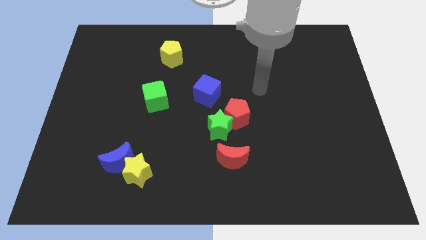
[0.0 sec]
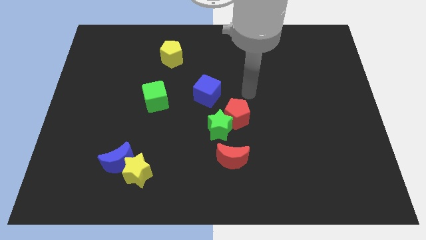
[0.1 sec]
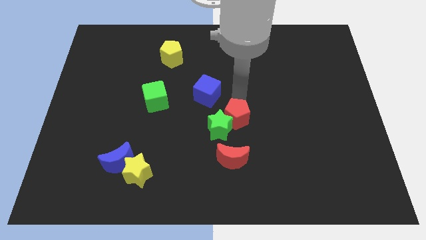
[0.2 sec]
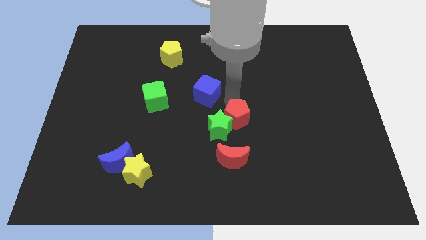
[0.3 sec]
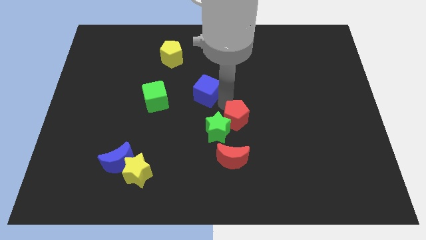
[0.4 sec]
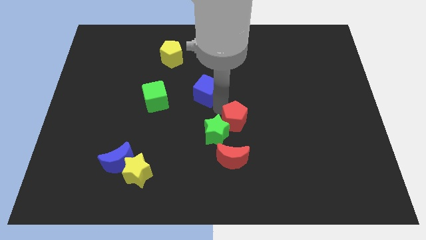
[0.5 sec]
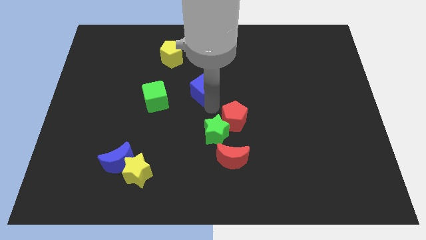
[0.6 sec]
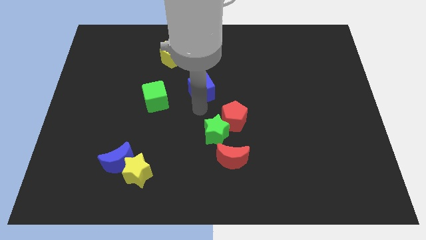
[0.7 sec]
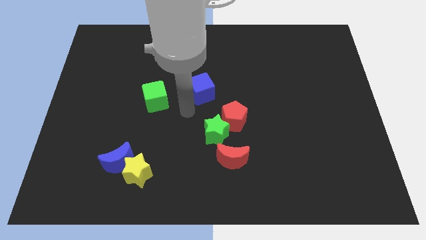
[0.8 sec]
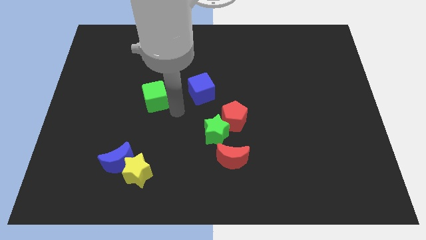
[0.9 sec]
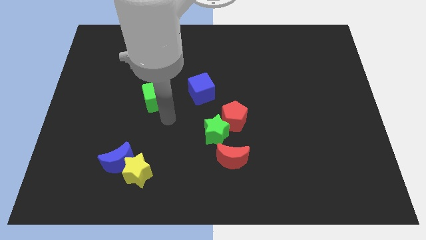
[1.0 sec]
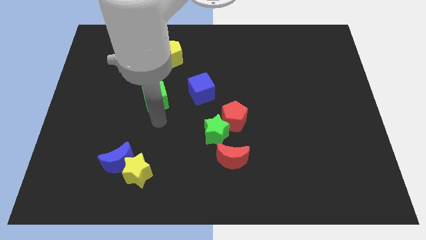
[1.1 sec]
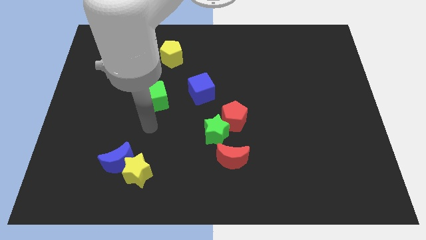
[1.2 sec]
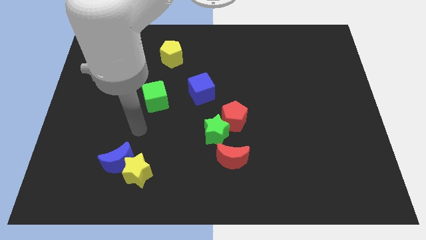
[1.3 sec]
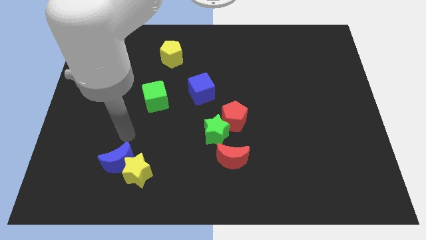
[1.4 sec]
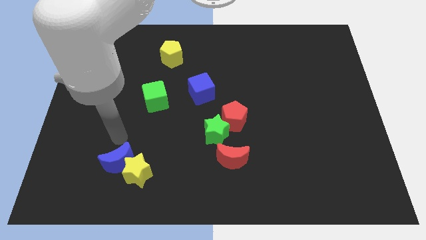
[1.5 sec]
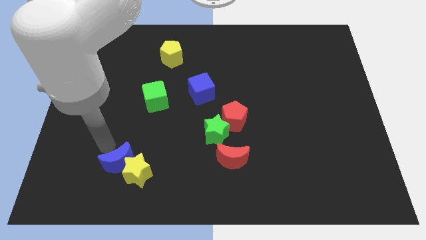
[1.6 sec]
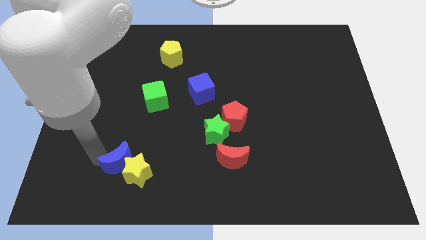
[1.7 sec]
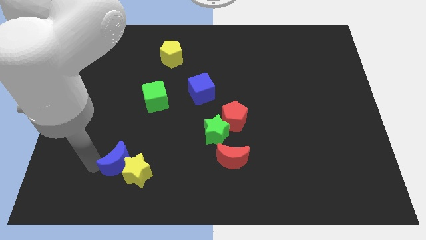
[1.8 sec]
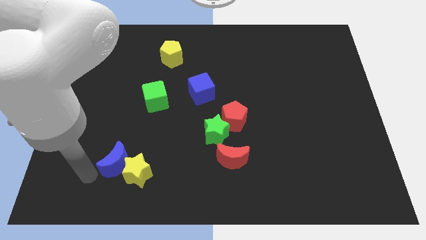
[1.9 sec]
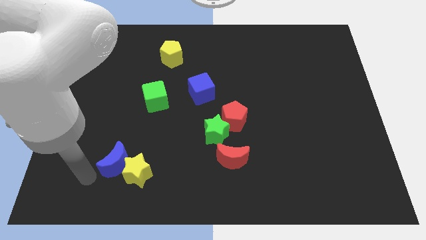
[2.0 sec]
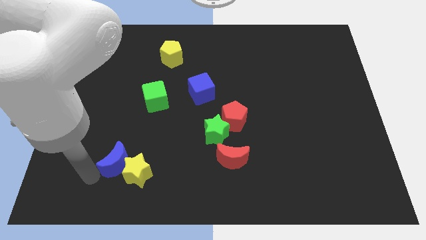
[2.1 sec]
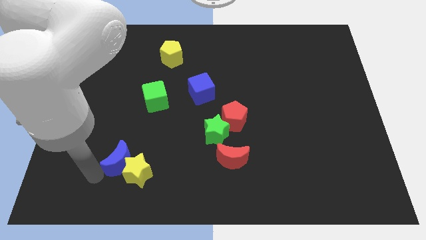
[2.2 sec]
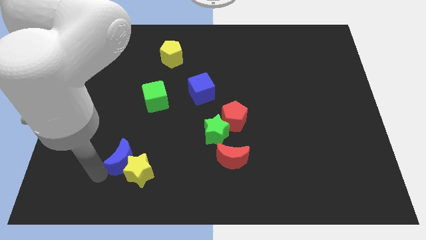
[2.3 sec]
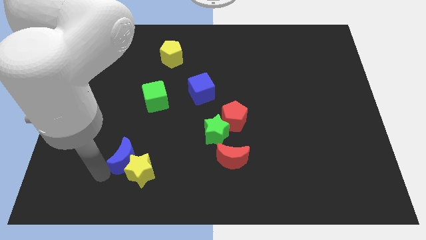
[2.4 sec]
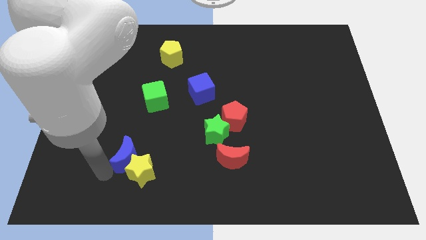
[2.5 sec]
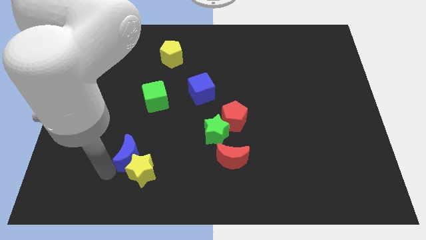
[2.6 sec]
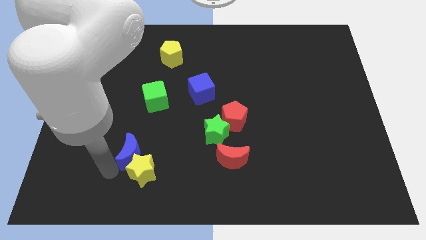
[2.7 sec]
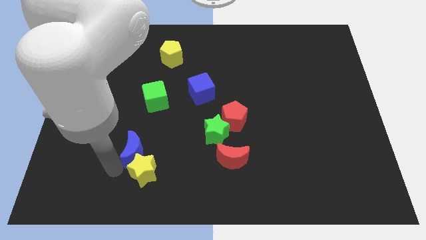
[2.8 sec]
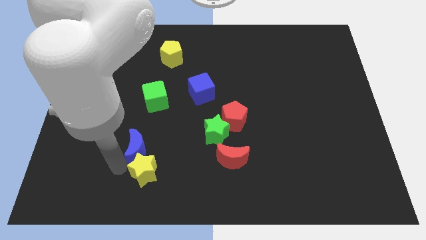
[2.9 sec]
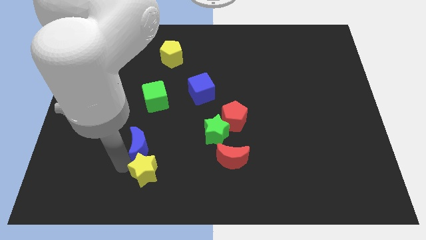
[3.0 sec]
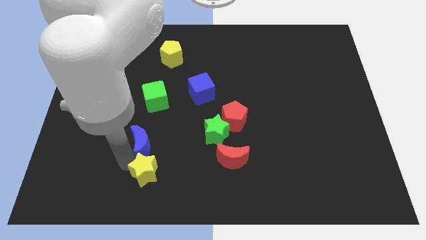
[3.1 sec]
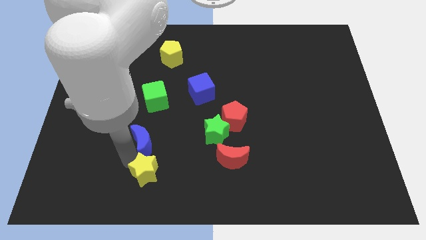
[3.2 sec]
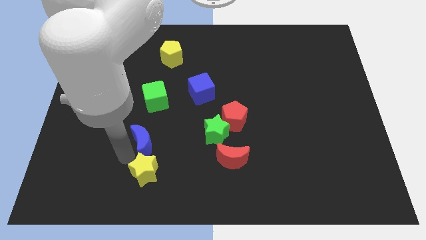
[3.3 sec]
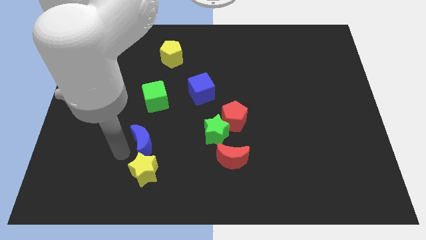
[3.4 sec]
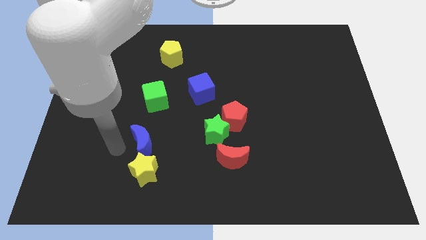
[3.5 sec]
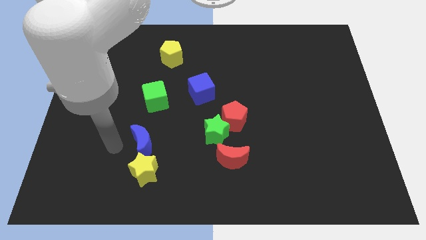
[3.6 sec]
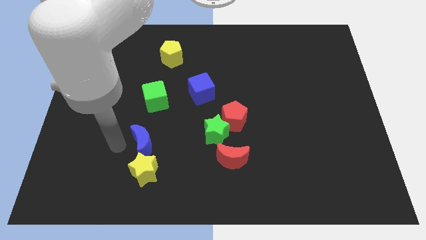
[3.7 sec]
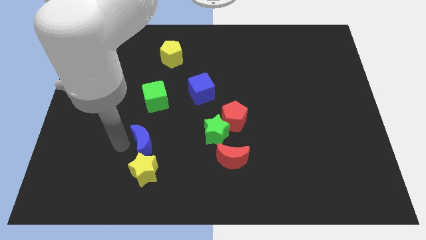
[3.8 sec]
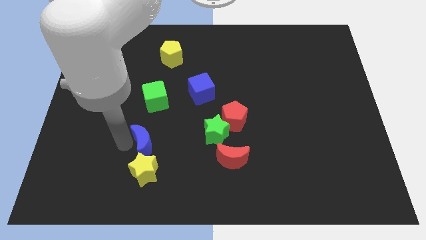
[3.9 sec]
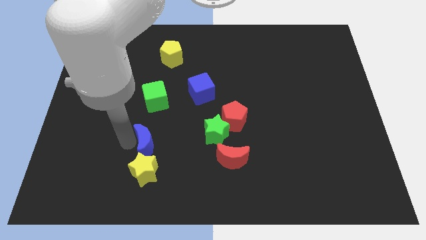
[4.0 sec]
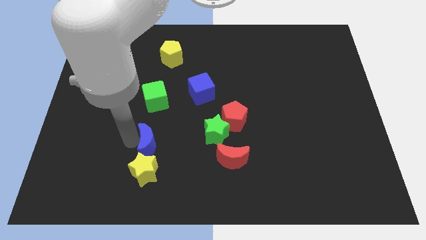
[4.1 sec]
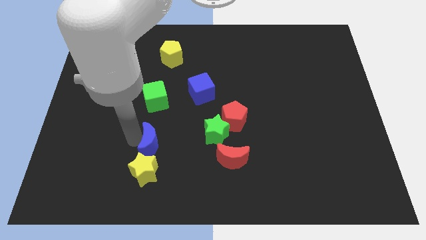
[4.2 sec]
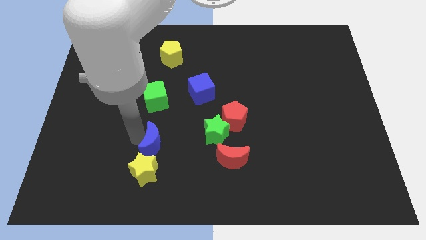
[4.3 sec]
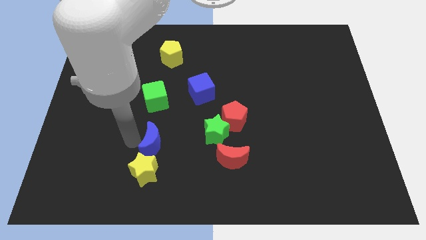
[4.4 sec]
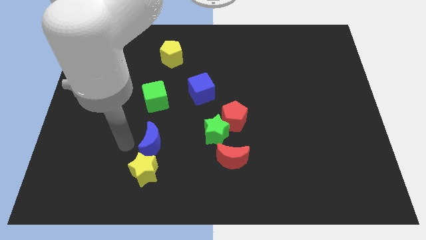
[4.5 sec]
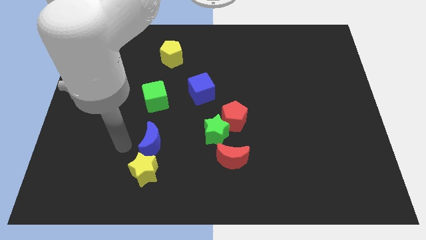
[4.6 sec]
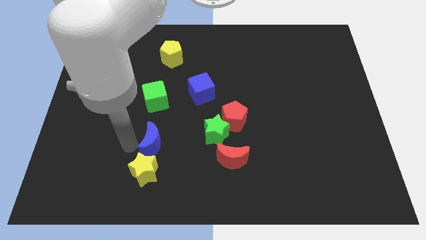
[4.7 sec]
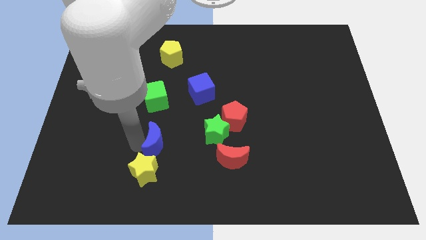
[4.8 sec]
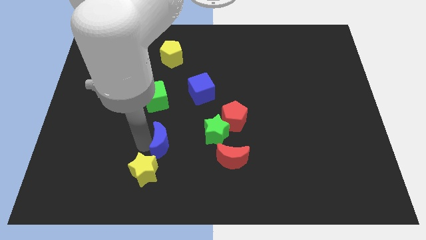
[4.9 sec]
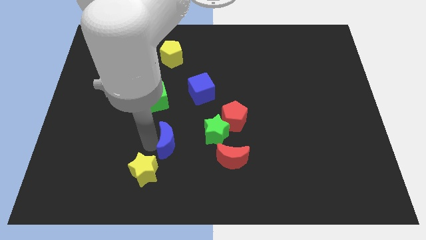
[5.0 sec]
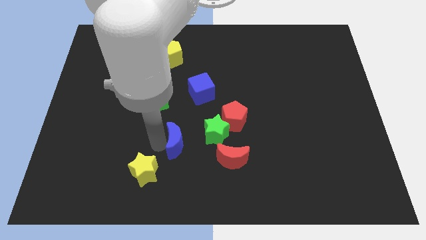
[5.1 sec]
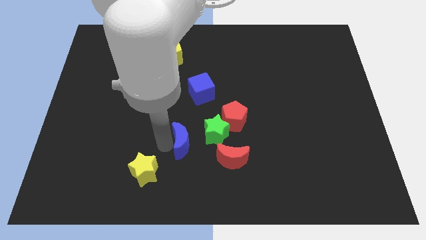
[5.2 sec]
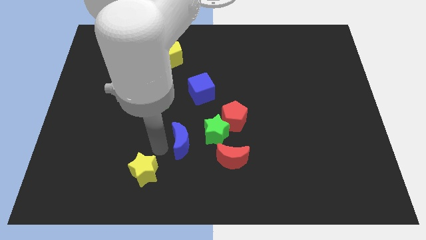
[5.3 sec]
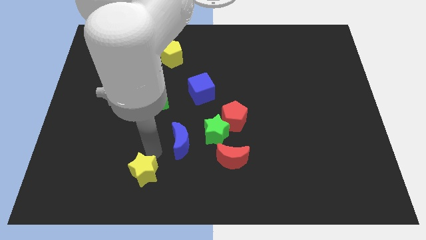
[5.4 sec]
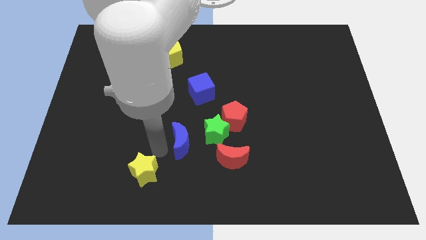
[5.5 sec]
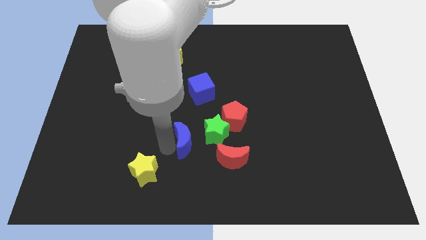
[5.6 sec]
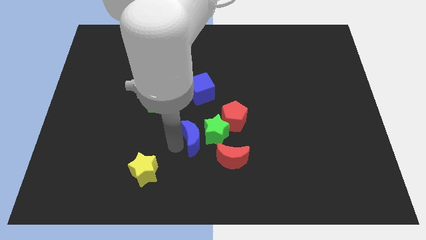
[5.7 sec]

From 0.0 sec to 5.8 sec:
put the blue moon next to the green star

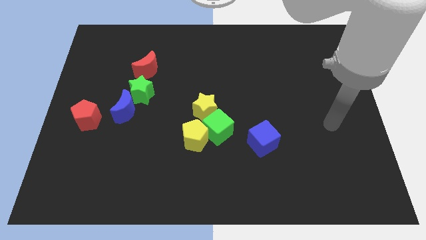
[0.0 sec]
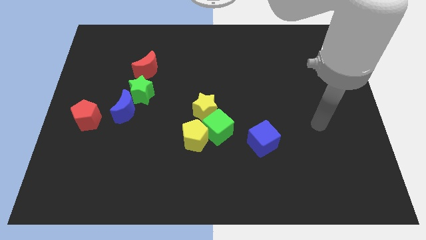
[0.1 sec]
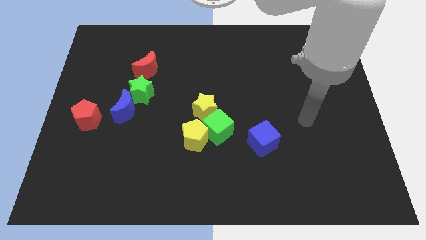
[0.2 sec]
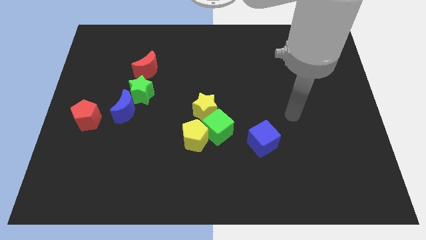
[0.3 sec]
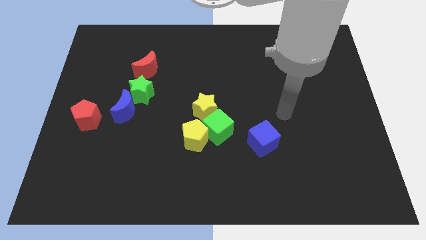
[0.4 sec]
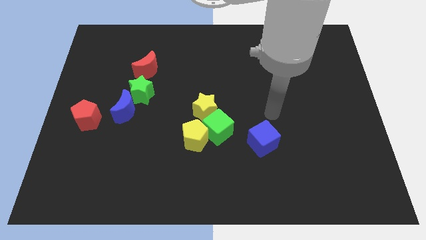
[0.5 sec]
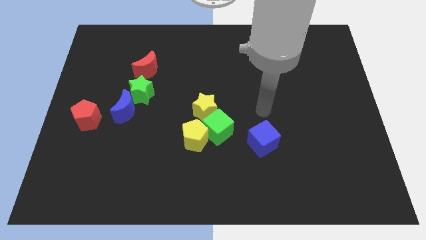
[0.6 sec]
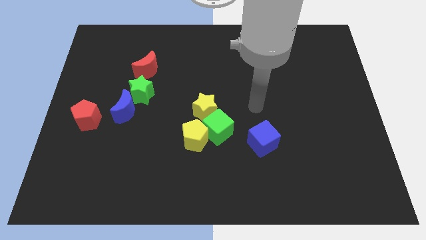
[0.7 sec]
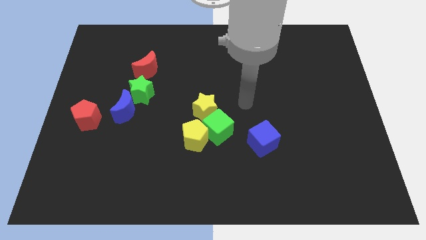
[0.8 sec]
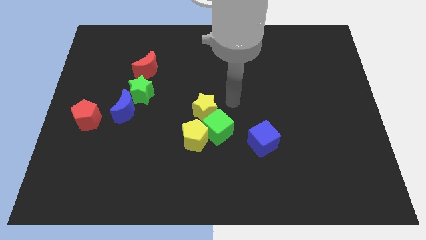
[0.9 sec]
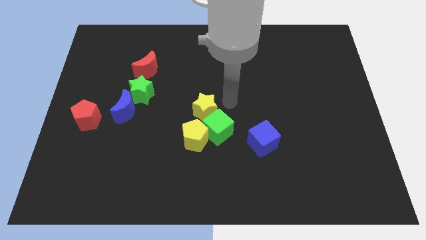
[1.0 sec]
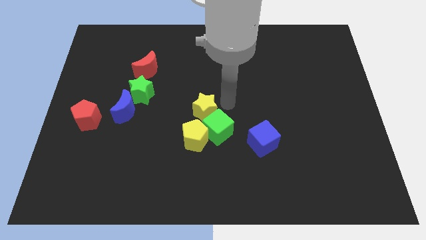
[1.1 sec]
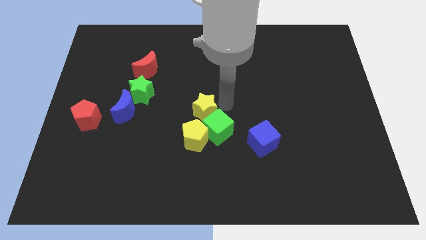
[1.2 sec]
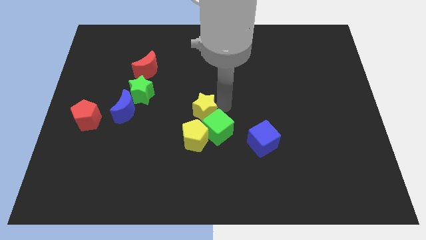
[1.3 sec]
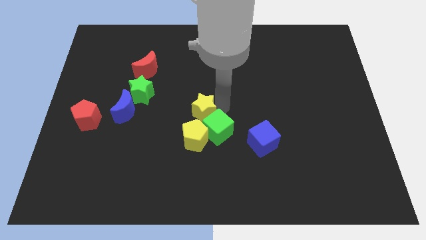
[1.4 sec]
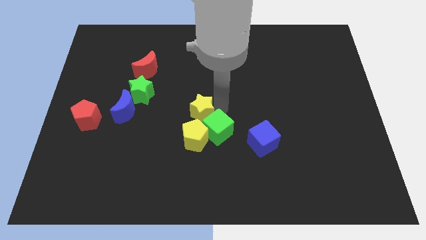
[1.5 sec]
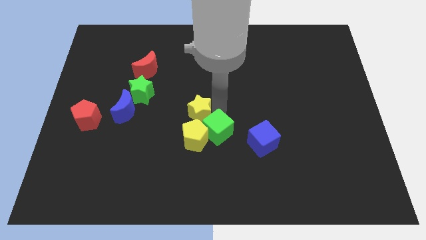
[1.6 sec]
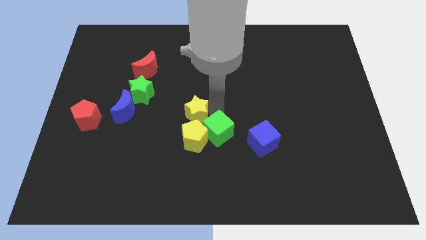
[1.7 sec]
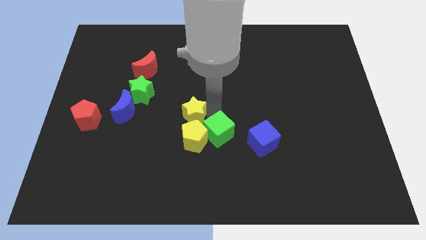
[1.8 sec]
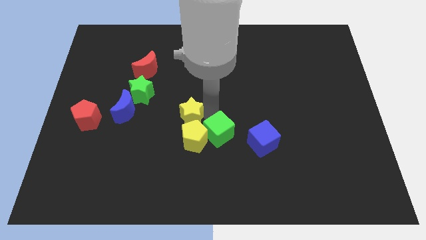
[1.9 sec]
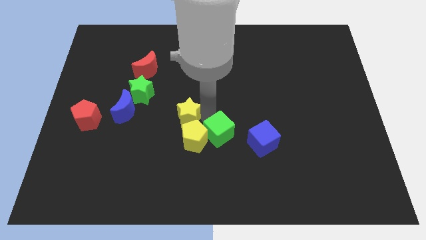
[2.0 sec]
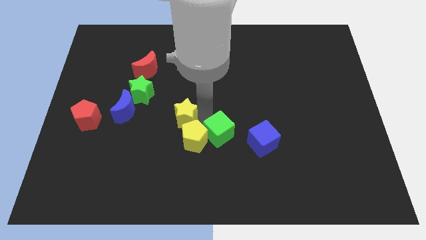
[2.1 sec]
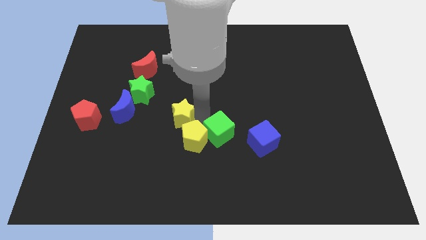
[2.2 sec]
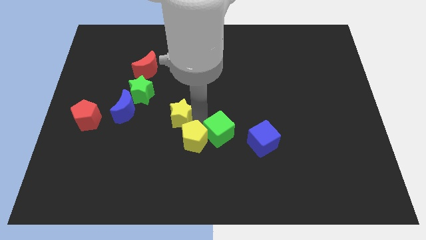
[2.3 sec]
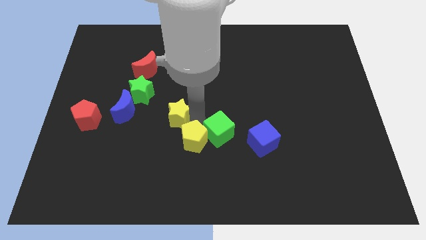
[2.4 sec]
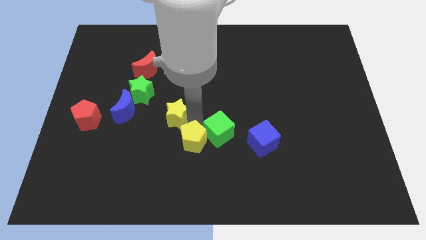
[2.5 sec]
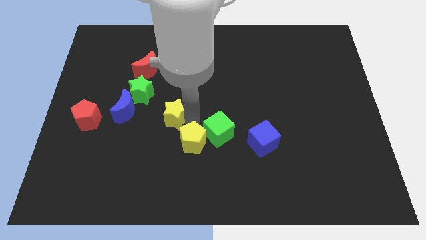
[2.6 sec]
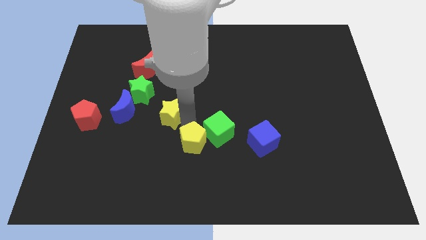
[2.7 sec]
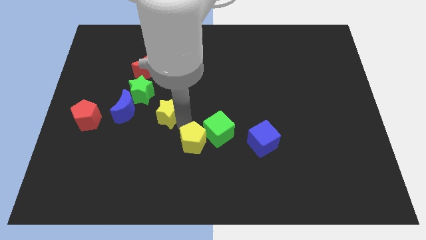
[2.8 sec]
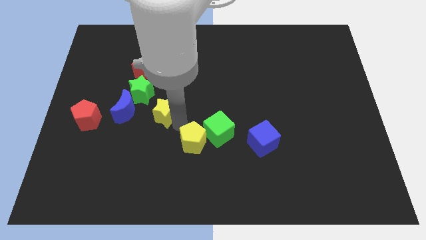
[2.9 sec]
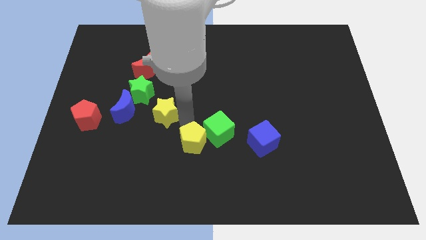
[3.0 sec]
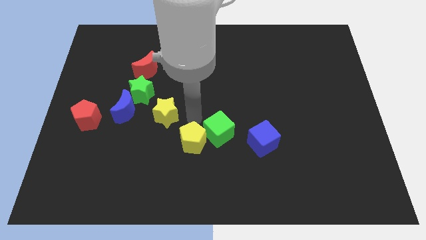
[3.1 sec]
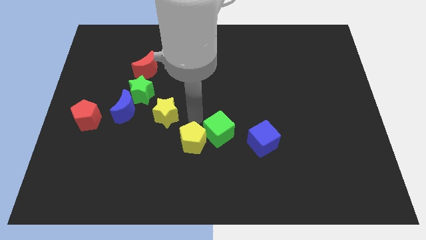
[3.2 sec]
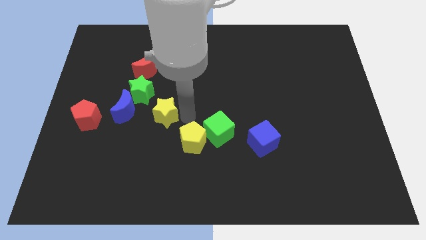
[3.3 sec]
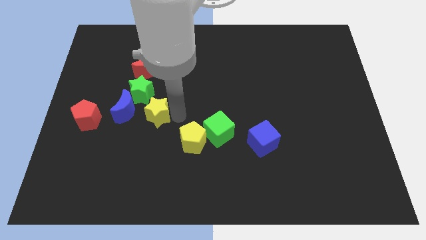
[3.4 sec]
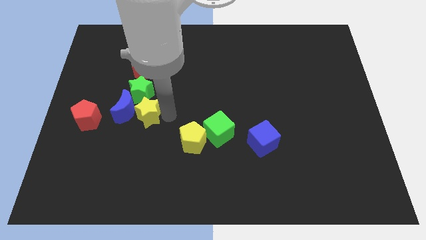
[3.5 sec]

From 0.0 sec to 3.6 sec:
move the yellow star towards the blue moon
